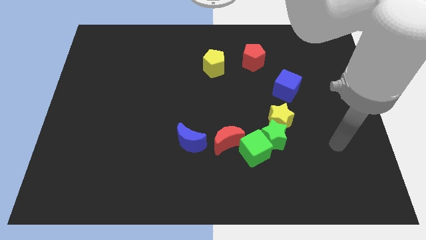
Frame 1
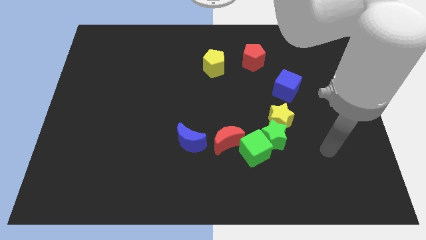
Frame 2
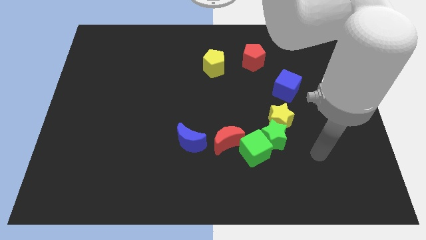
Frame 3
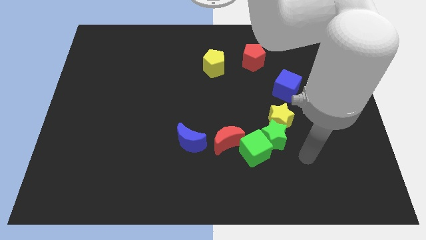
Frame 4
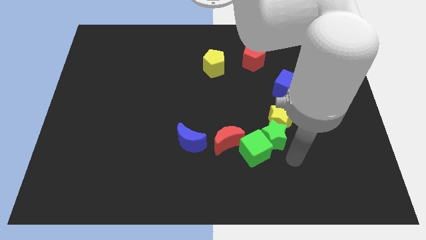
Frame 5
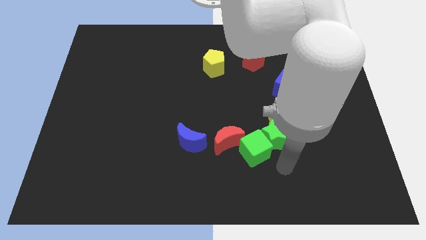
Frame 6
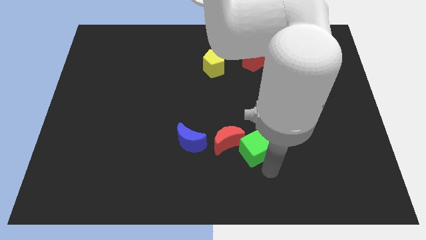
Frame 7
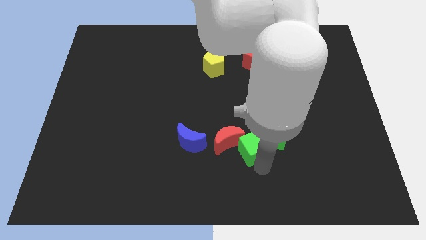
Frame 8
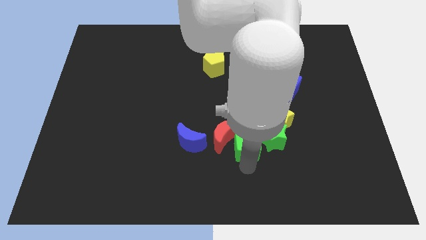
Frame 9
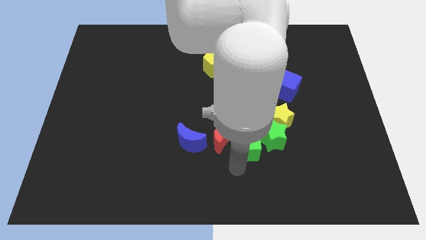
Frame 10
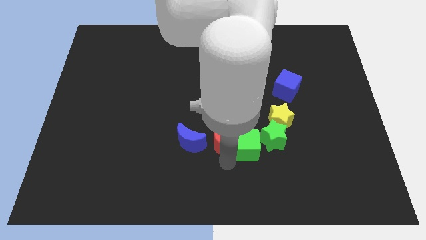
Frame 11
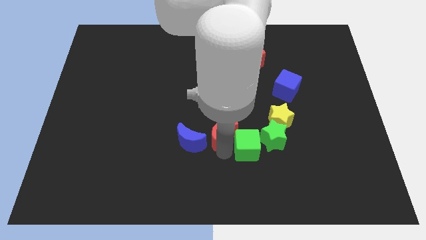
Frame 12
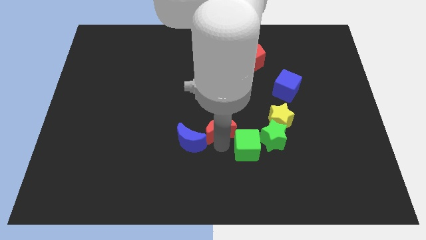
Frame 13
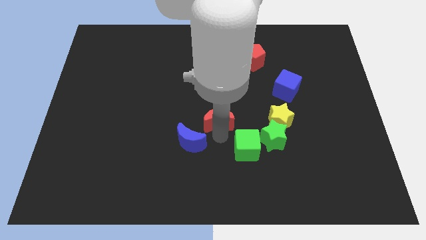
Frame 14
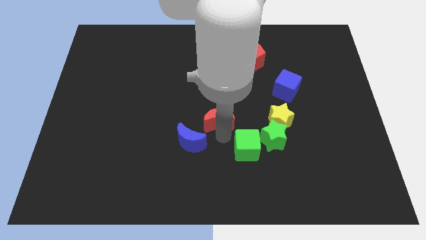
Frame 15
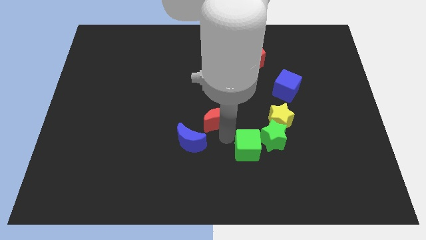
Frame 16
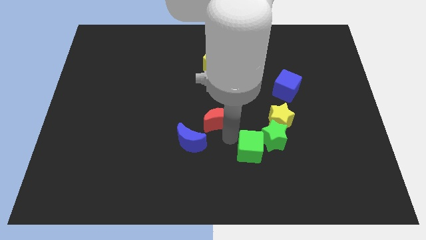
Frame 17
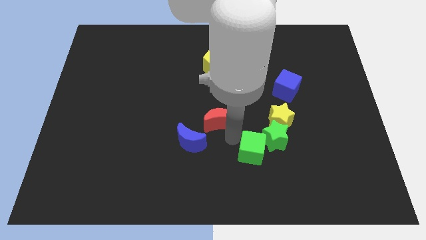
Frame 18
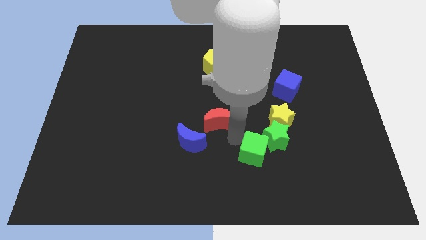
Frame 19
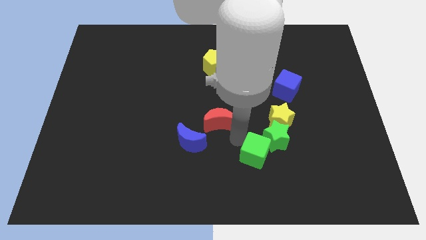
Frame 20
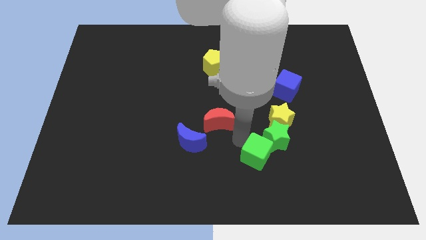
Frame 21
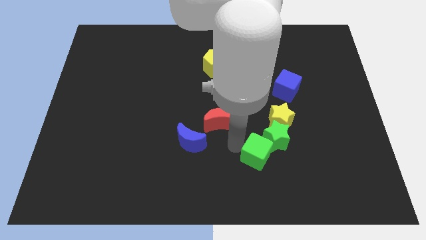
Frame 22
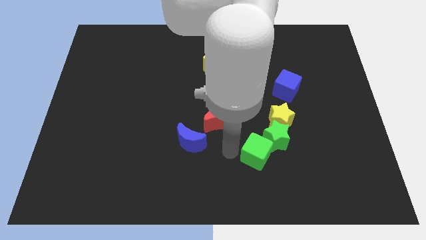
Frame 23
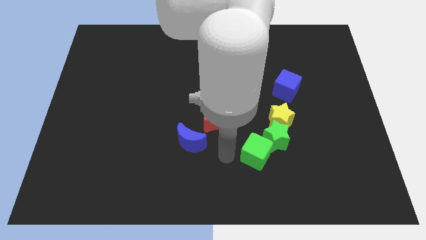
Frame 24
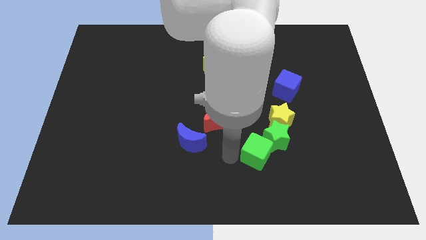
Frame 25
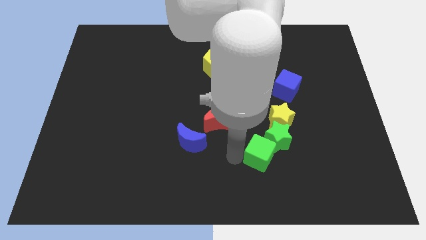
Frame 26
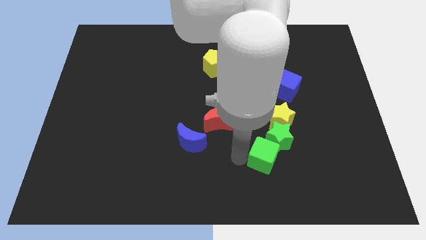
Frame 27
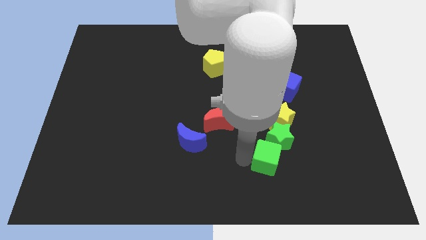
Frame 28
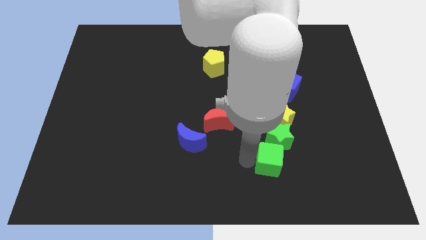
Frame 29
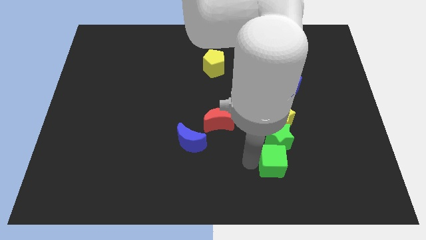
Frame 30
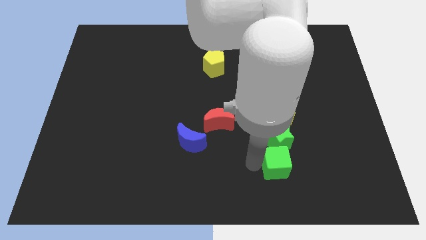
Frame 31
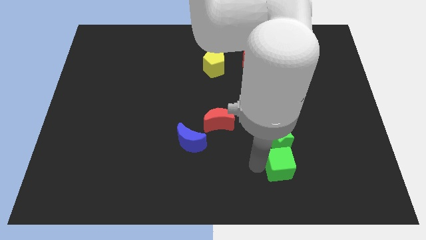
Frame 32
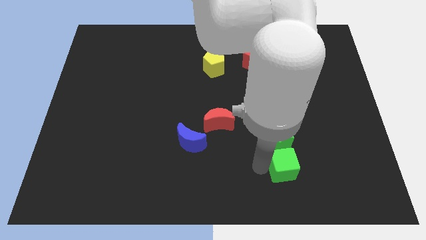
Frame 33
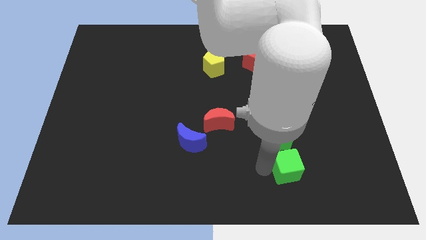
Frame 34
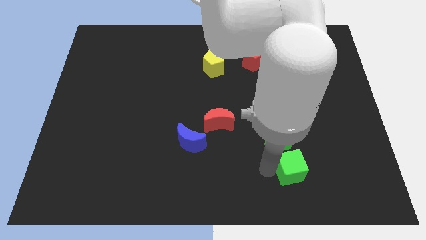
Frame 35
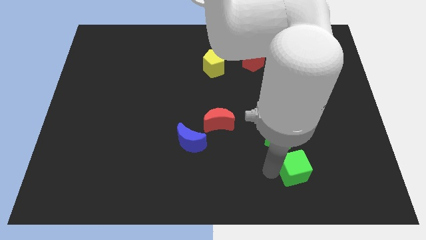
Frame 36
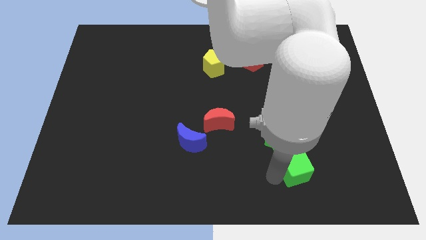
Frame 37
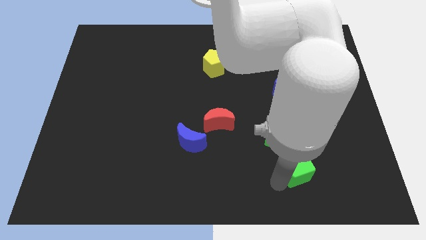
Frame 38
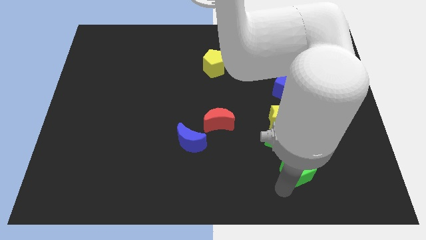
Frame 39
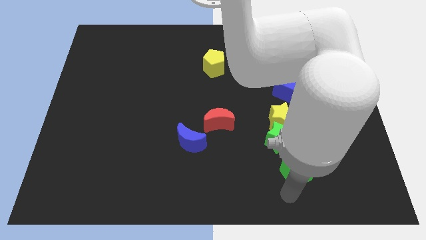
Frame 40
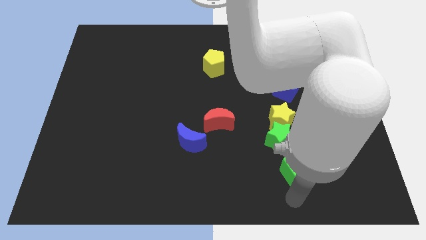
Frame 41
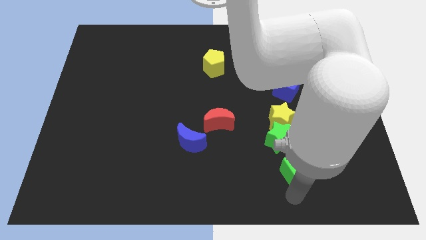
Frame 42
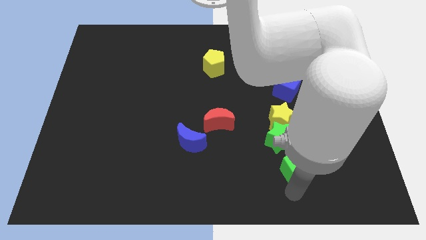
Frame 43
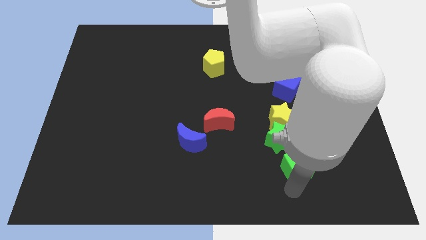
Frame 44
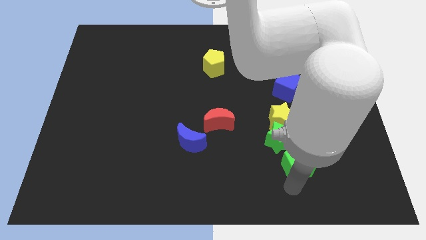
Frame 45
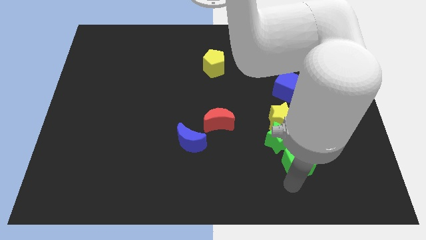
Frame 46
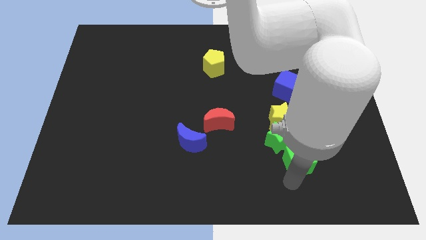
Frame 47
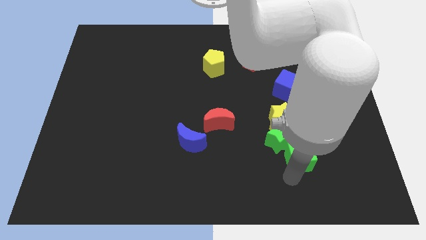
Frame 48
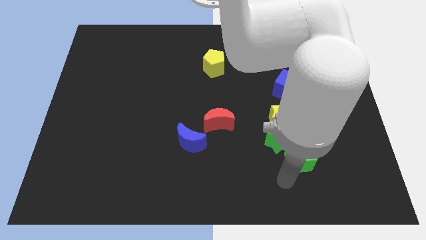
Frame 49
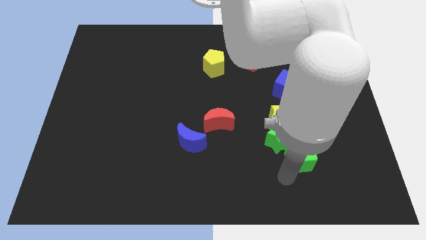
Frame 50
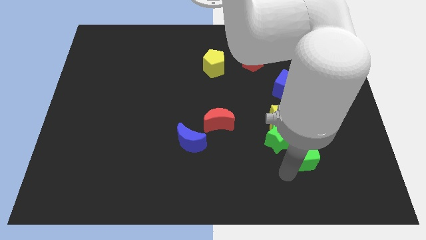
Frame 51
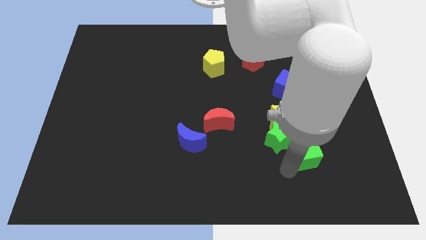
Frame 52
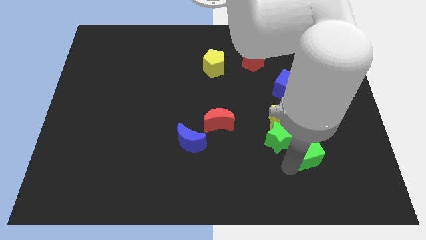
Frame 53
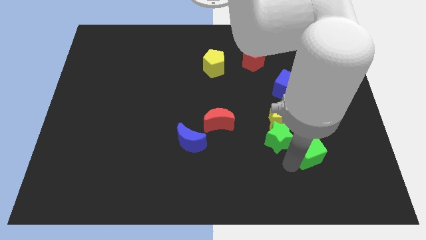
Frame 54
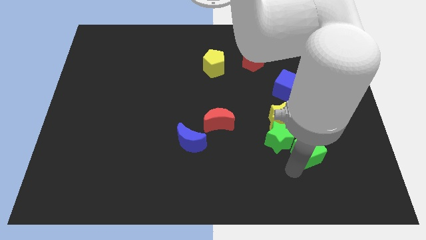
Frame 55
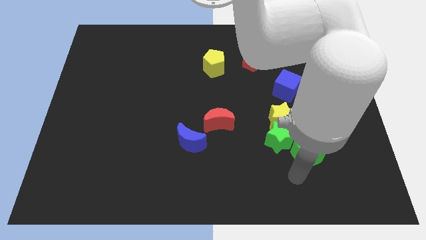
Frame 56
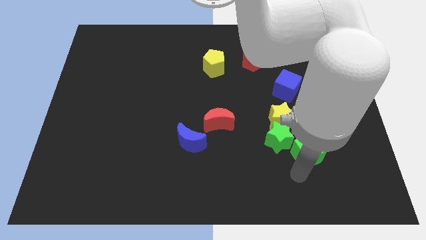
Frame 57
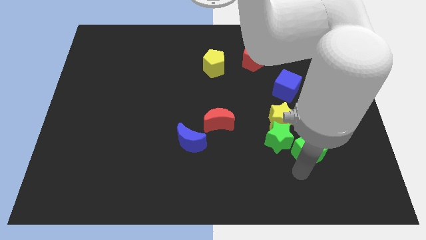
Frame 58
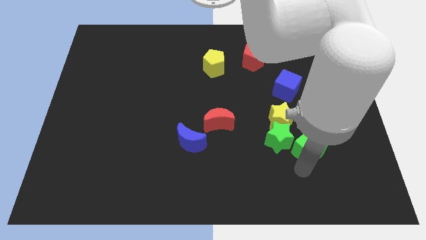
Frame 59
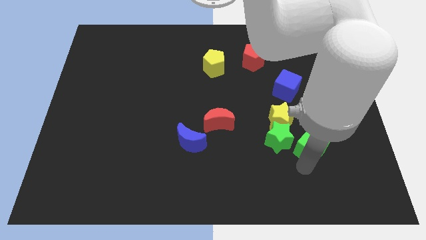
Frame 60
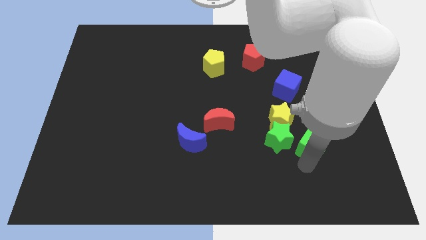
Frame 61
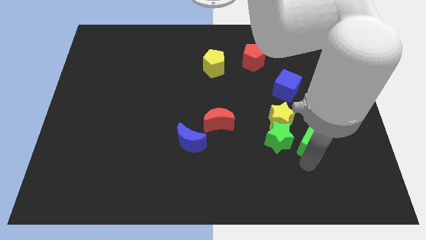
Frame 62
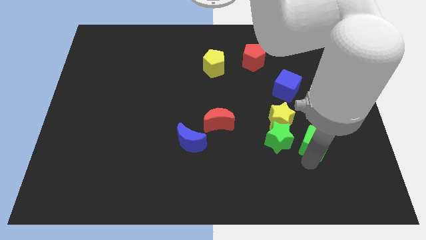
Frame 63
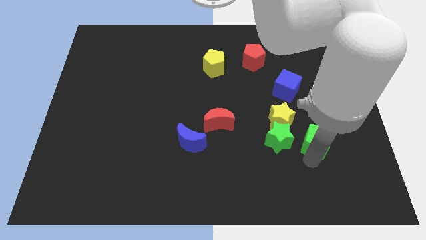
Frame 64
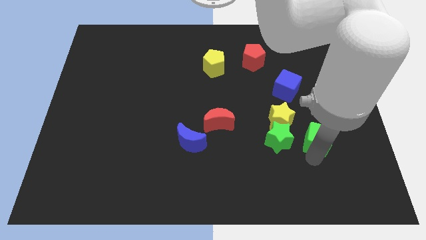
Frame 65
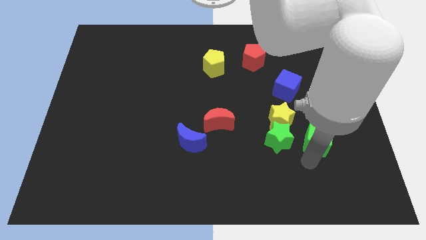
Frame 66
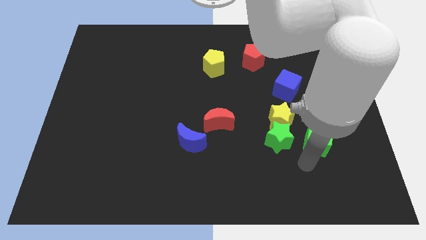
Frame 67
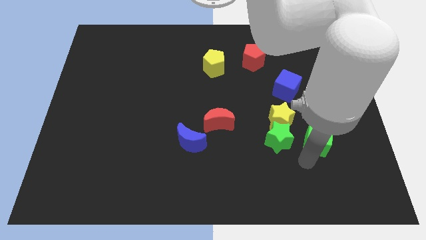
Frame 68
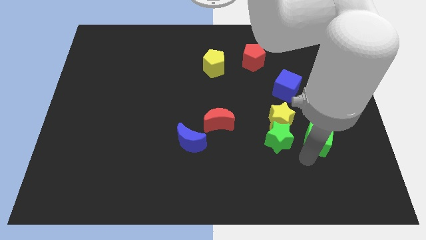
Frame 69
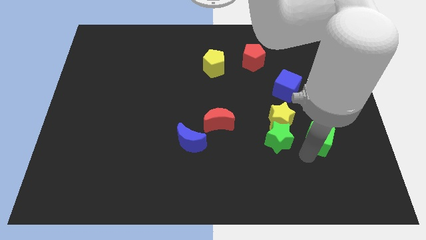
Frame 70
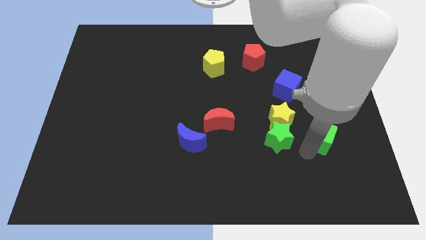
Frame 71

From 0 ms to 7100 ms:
push the green cube to the right of the yellow star
